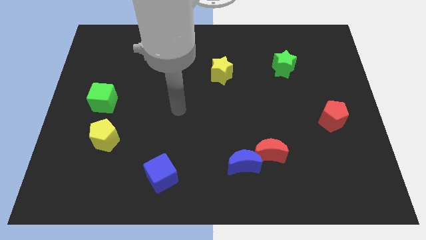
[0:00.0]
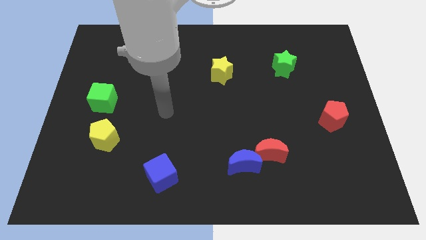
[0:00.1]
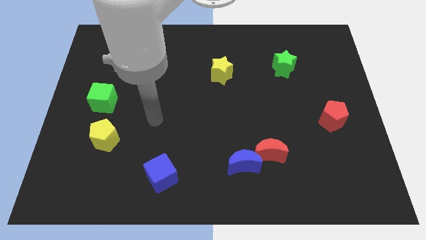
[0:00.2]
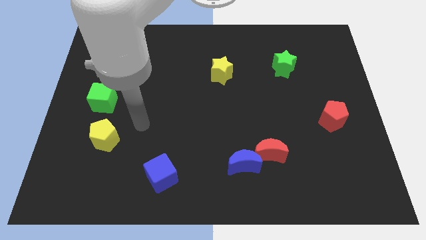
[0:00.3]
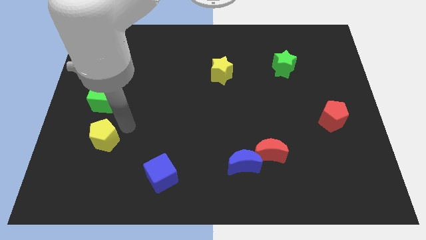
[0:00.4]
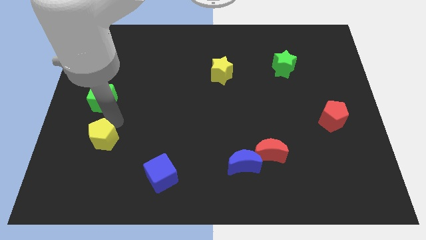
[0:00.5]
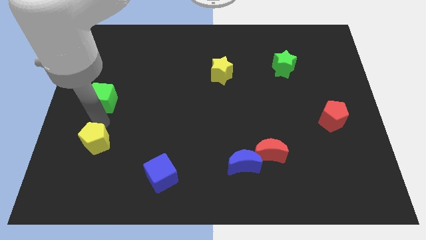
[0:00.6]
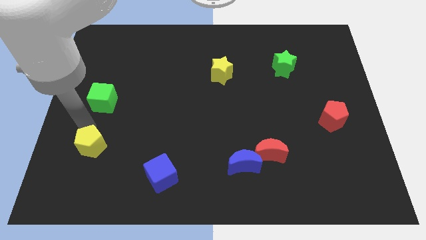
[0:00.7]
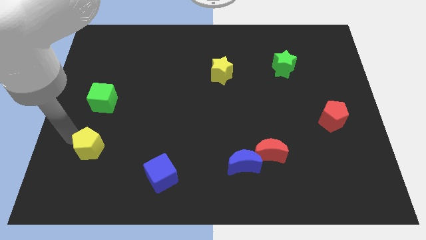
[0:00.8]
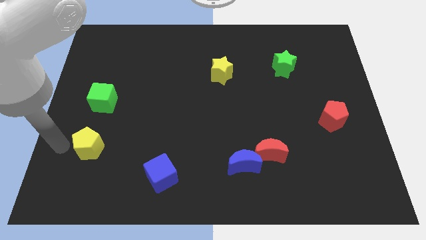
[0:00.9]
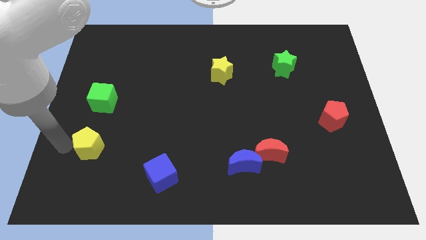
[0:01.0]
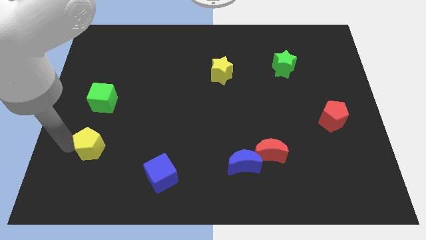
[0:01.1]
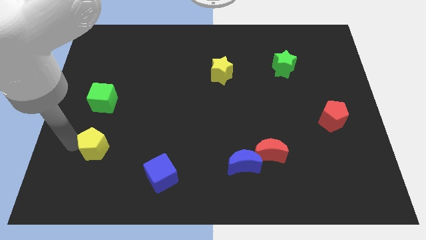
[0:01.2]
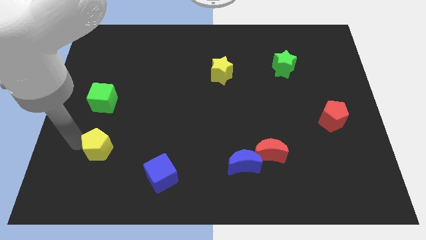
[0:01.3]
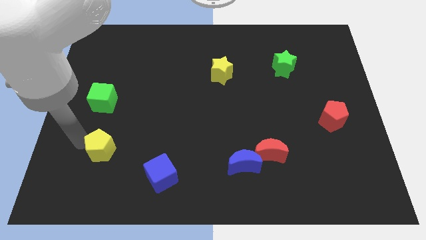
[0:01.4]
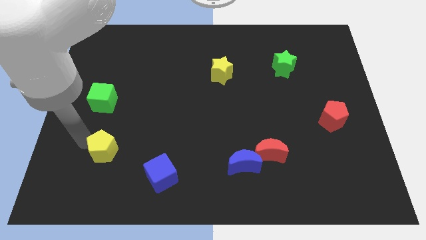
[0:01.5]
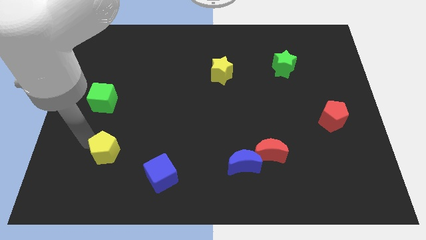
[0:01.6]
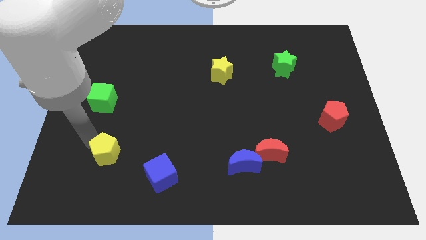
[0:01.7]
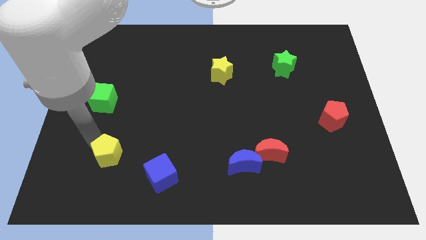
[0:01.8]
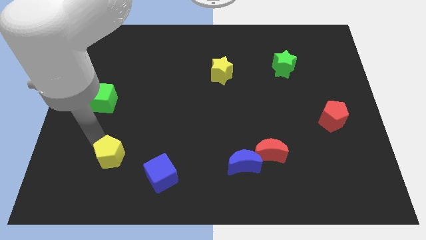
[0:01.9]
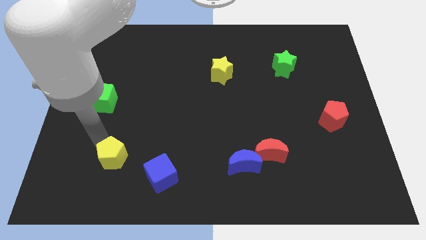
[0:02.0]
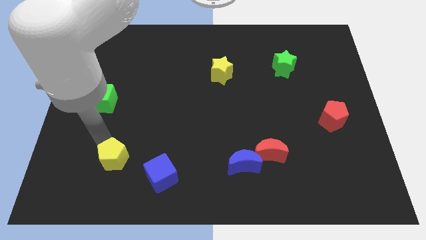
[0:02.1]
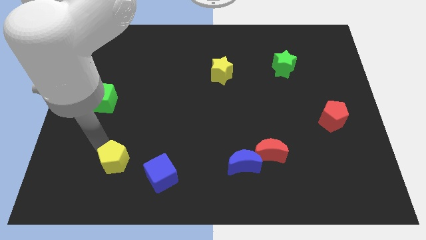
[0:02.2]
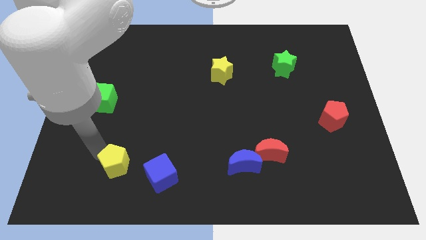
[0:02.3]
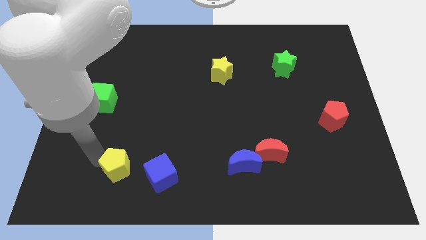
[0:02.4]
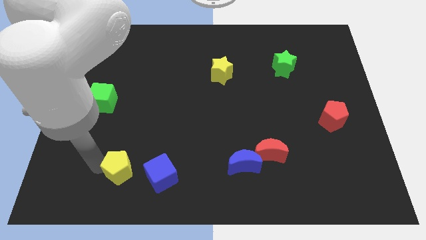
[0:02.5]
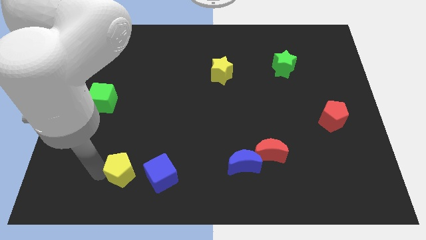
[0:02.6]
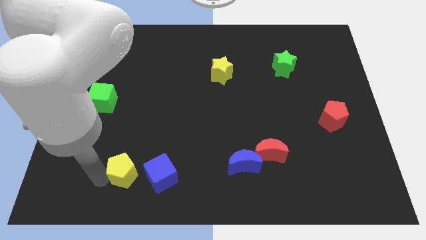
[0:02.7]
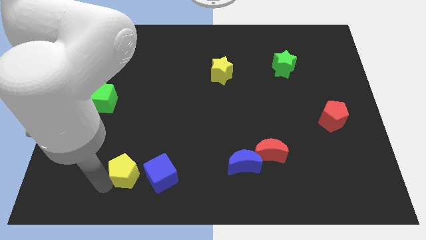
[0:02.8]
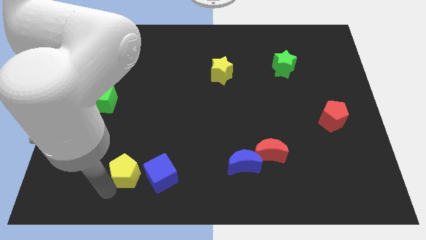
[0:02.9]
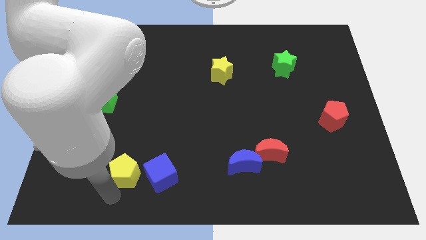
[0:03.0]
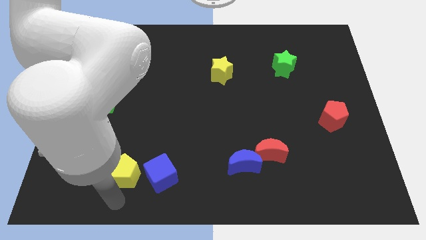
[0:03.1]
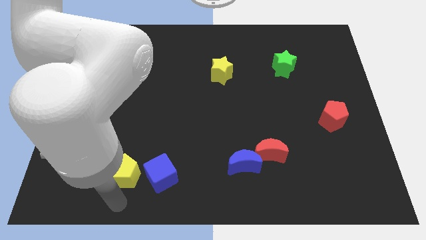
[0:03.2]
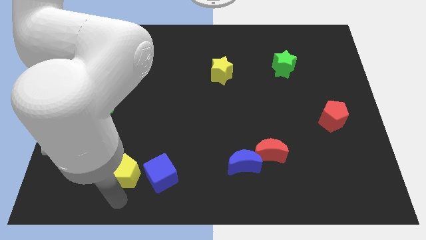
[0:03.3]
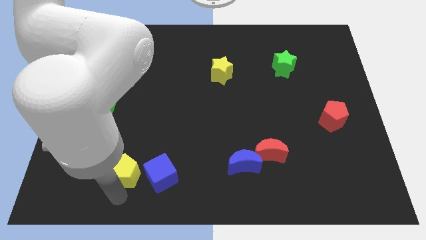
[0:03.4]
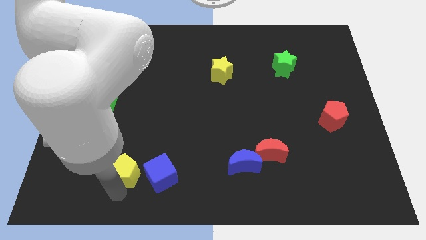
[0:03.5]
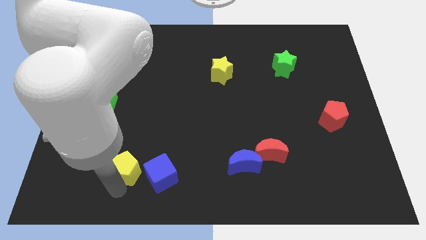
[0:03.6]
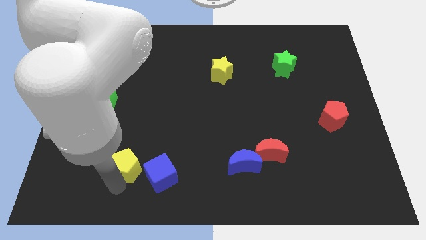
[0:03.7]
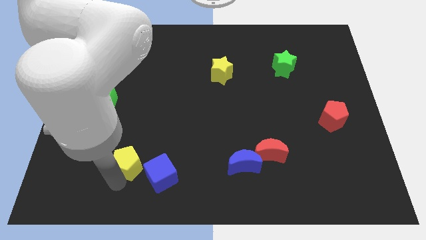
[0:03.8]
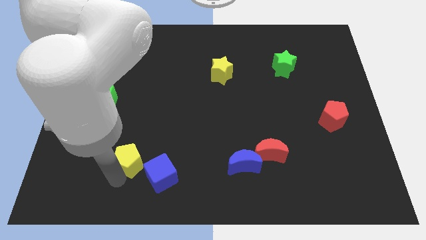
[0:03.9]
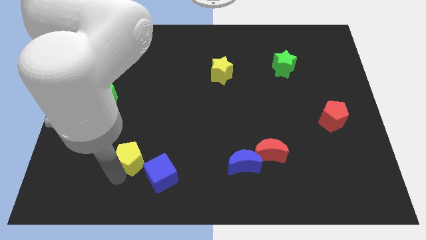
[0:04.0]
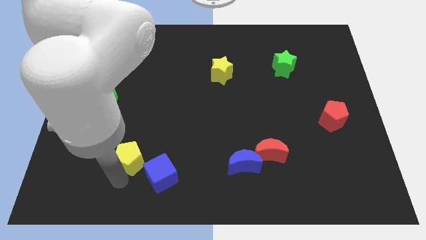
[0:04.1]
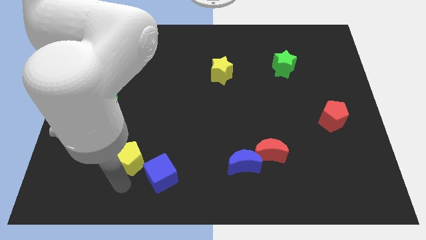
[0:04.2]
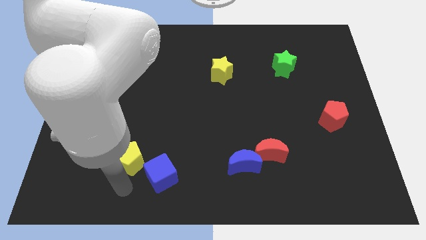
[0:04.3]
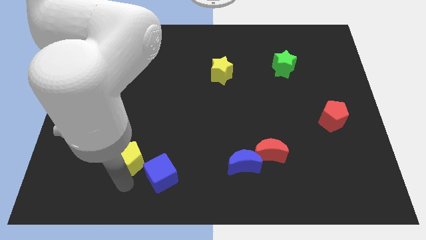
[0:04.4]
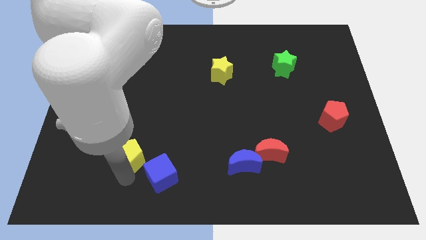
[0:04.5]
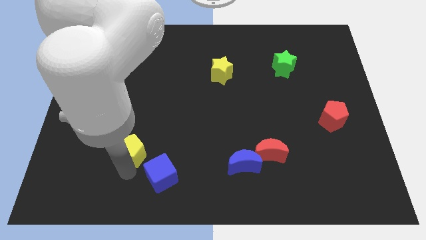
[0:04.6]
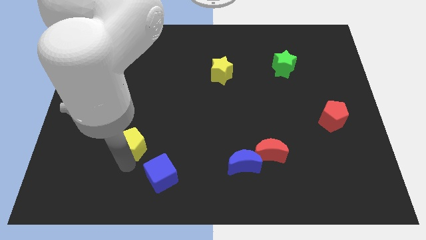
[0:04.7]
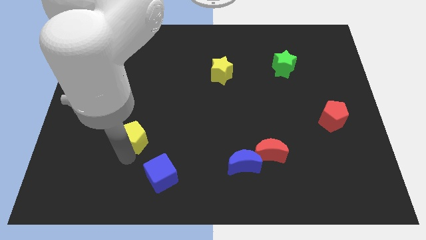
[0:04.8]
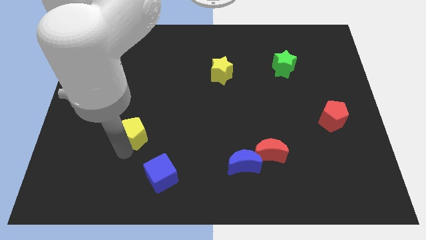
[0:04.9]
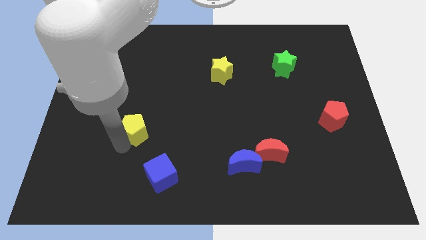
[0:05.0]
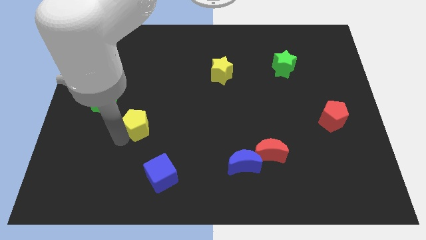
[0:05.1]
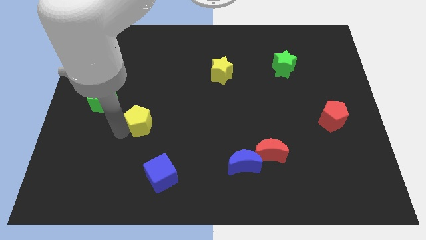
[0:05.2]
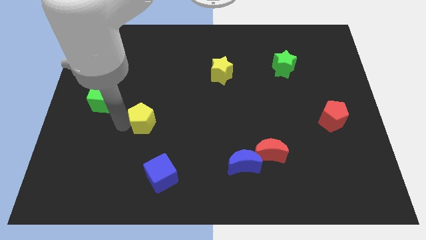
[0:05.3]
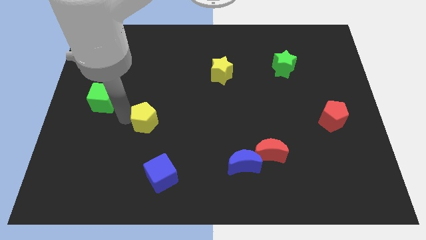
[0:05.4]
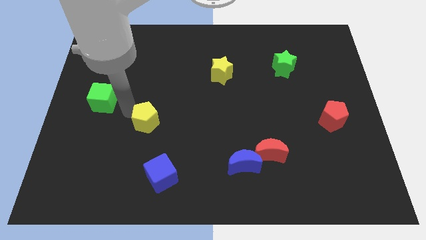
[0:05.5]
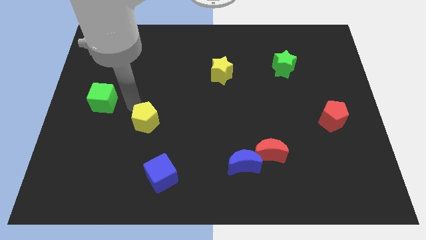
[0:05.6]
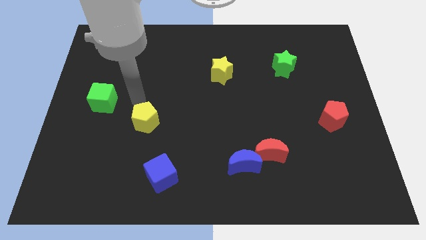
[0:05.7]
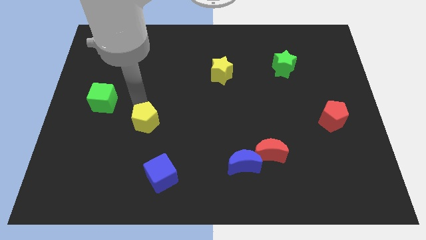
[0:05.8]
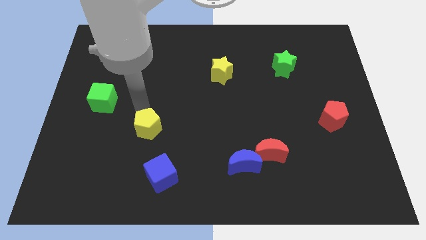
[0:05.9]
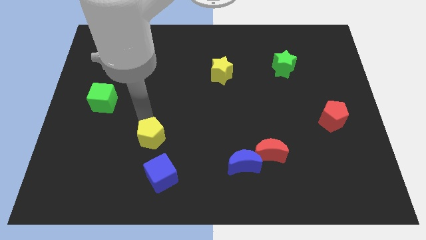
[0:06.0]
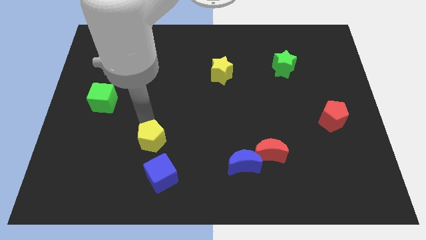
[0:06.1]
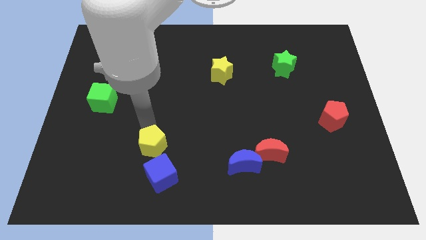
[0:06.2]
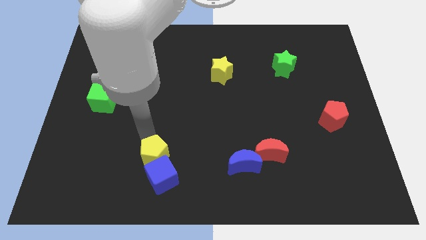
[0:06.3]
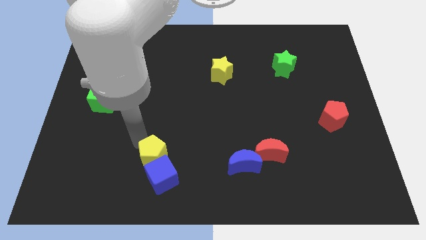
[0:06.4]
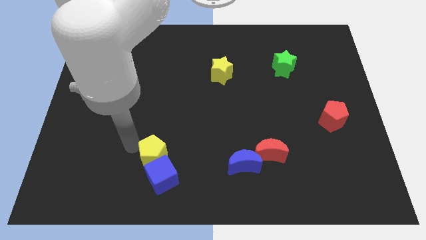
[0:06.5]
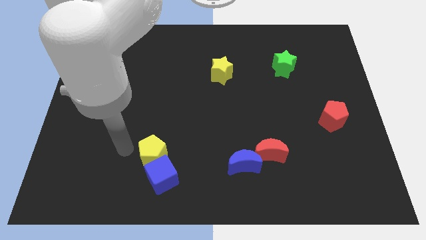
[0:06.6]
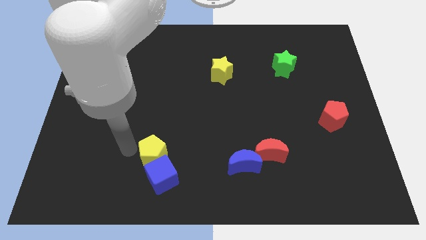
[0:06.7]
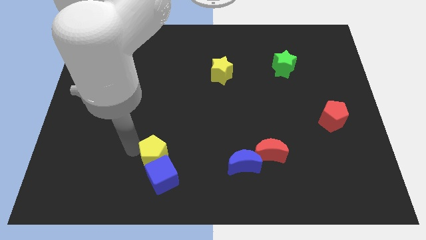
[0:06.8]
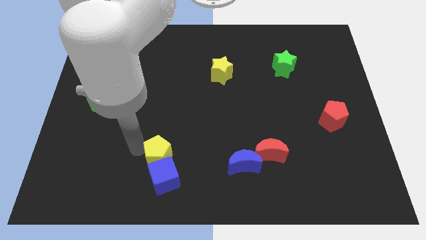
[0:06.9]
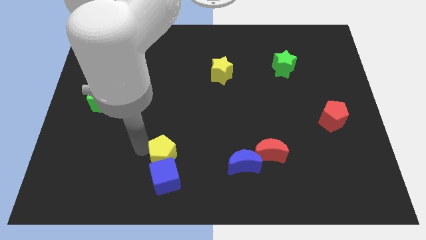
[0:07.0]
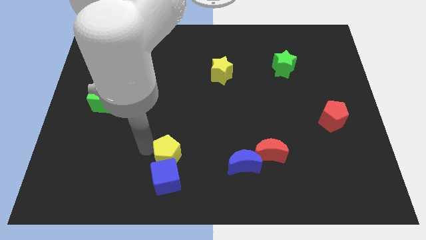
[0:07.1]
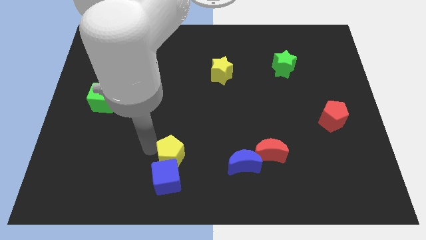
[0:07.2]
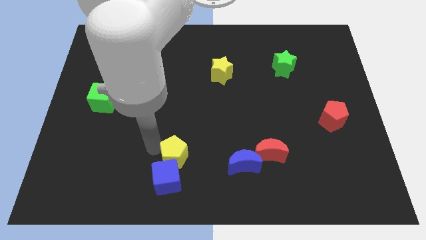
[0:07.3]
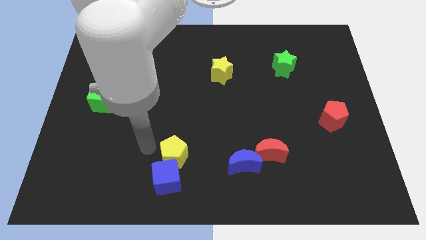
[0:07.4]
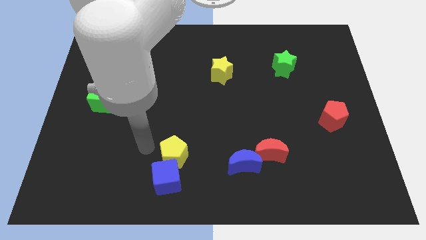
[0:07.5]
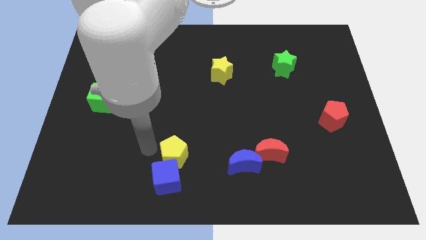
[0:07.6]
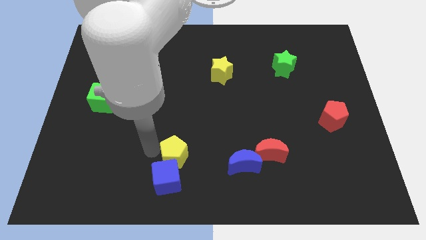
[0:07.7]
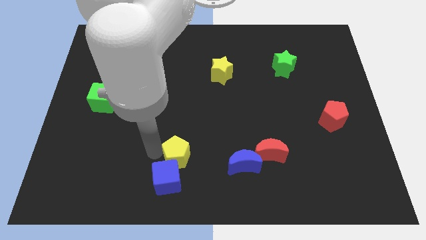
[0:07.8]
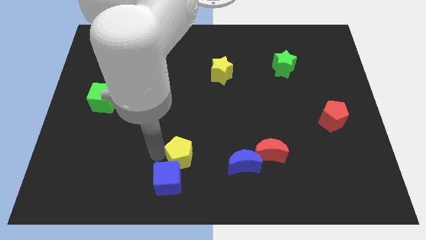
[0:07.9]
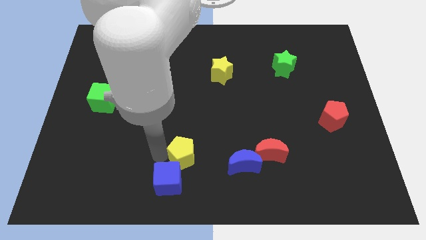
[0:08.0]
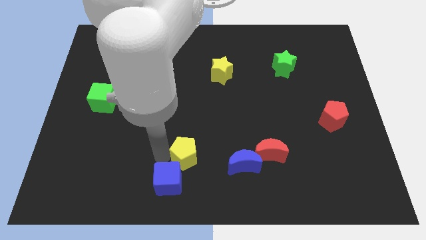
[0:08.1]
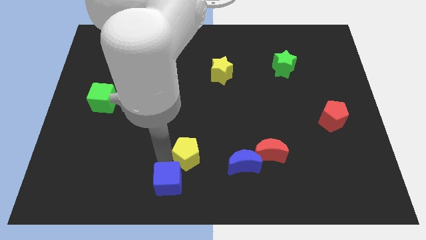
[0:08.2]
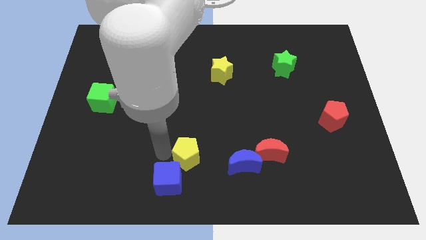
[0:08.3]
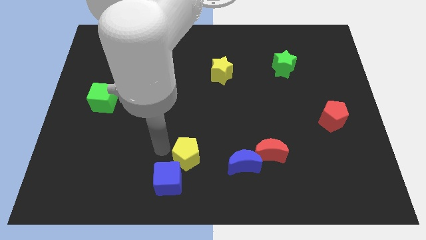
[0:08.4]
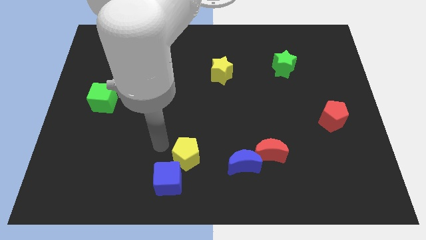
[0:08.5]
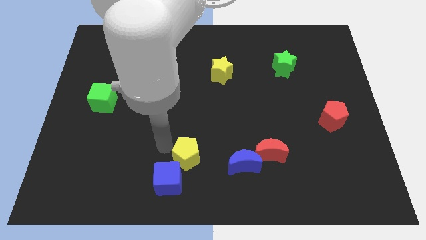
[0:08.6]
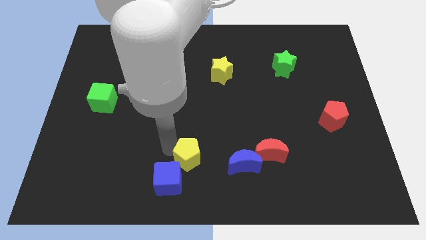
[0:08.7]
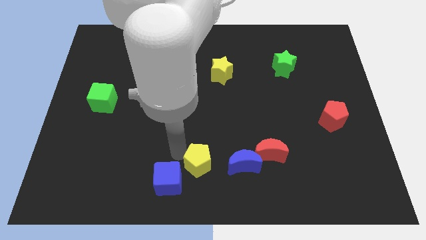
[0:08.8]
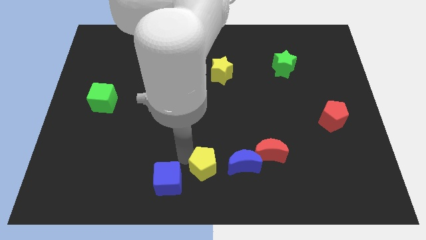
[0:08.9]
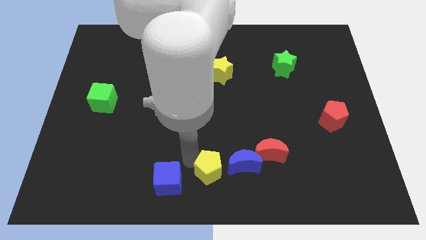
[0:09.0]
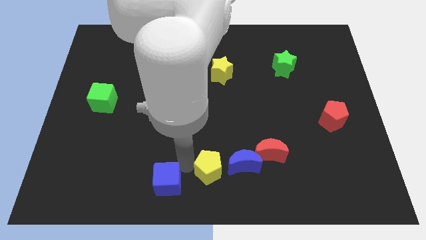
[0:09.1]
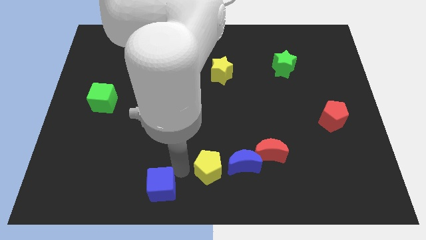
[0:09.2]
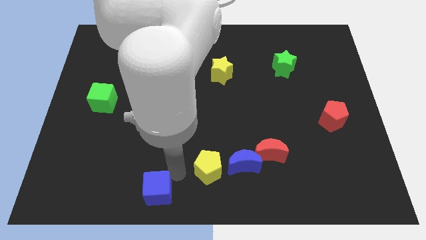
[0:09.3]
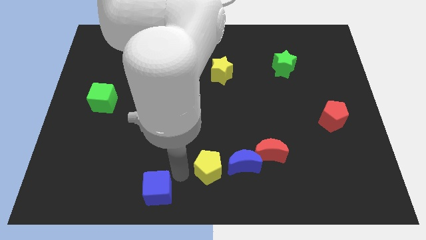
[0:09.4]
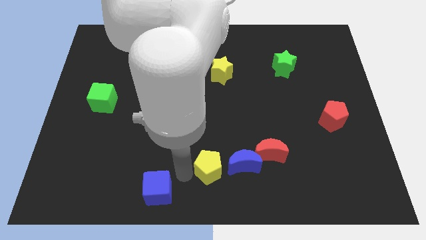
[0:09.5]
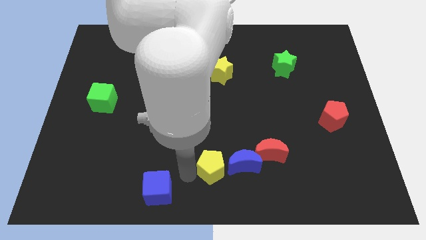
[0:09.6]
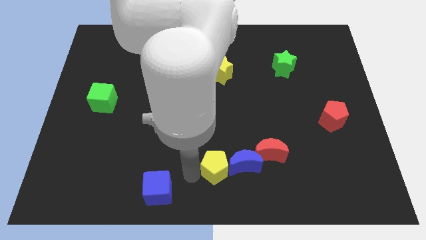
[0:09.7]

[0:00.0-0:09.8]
slide the yellow pentagon towards the blue moon
